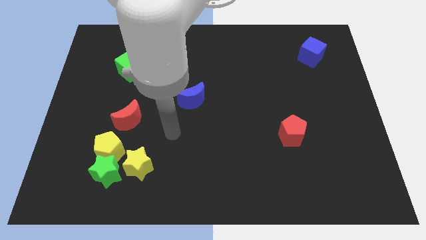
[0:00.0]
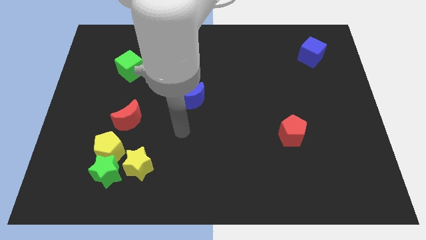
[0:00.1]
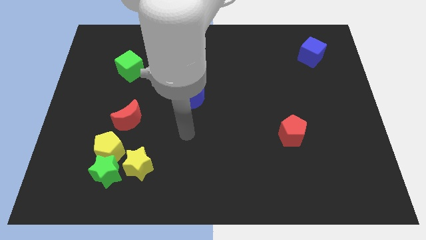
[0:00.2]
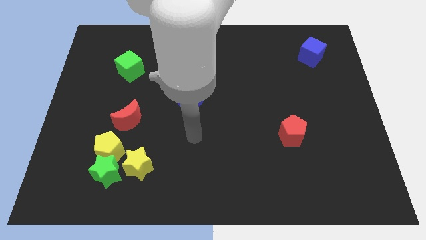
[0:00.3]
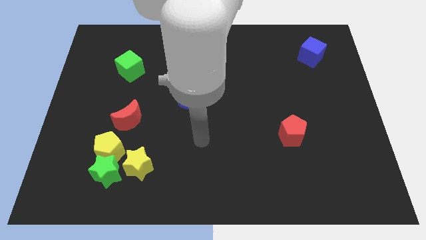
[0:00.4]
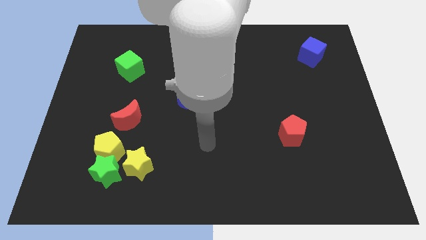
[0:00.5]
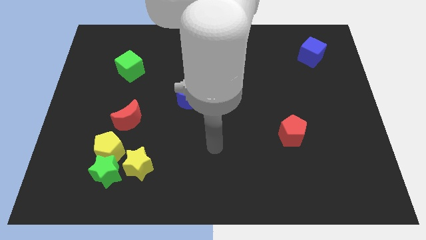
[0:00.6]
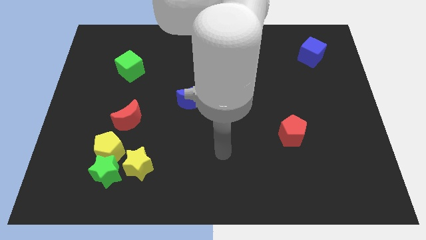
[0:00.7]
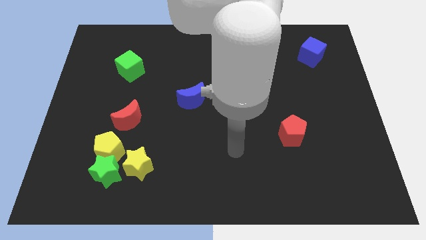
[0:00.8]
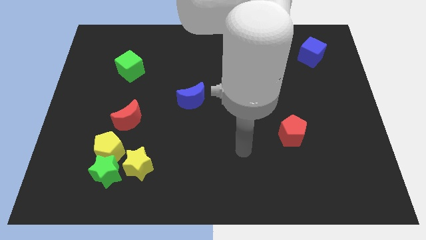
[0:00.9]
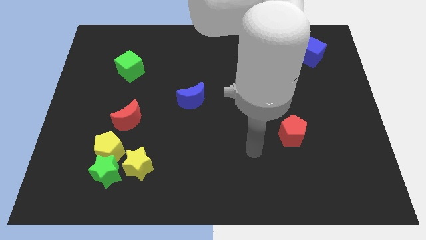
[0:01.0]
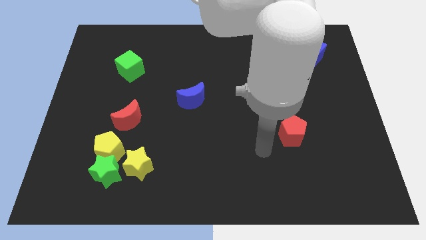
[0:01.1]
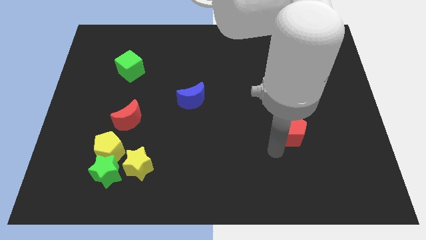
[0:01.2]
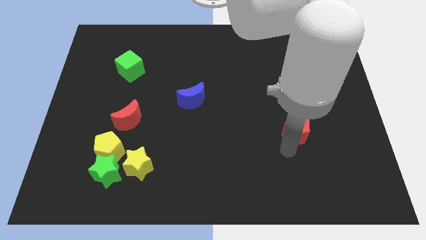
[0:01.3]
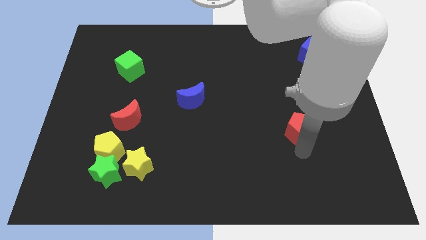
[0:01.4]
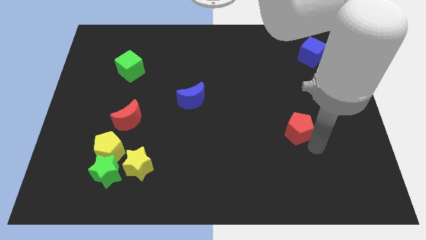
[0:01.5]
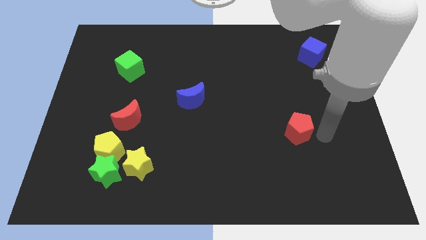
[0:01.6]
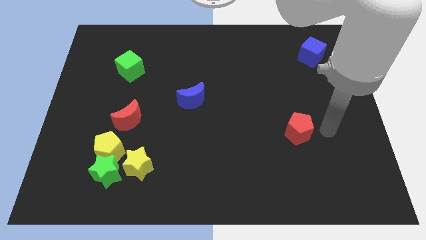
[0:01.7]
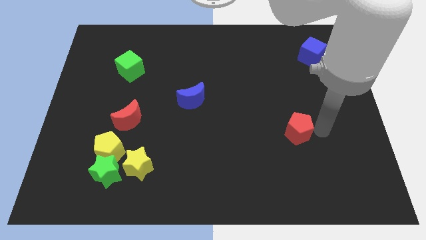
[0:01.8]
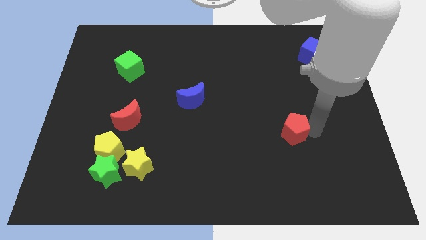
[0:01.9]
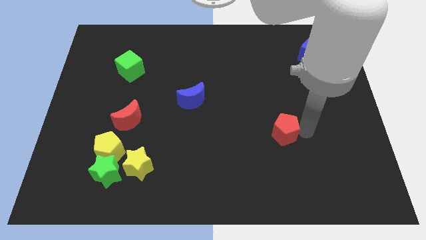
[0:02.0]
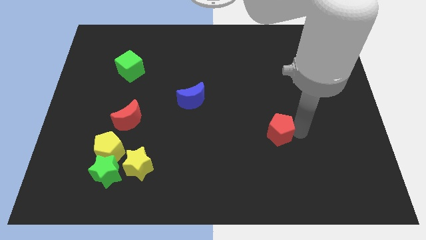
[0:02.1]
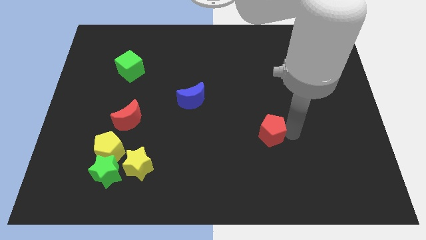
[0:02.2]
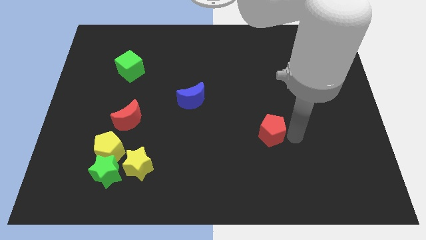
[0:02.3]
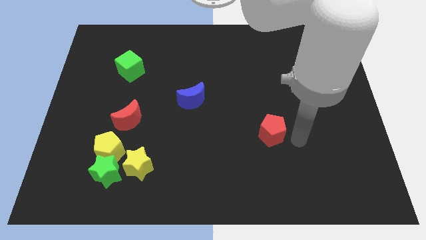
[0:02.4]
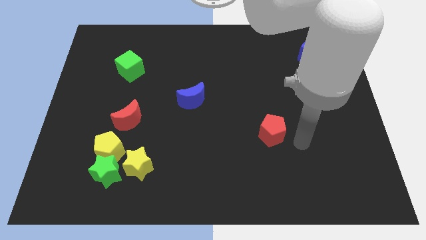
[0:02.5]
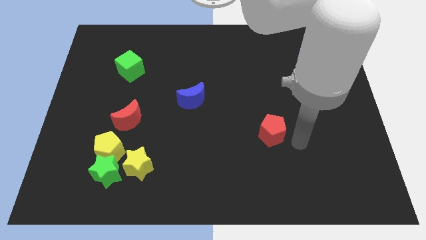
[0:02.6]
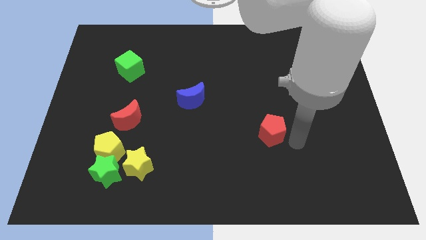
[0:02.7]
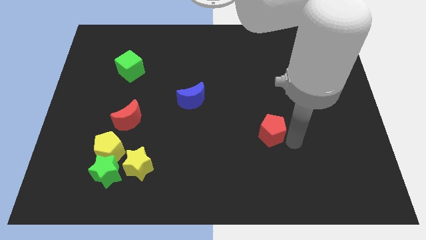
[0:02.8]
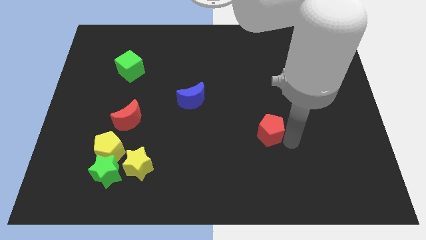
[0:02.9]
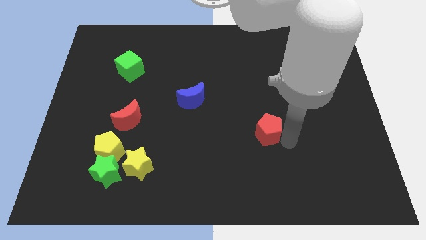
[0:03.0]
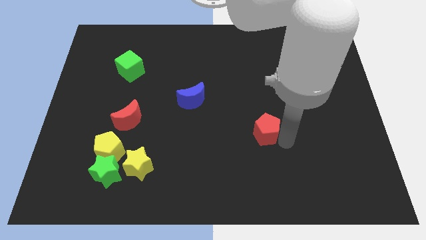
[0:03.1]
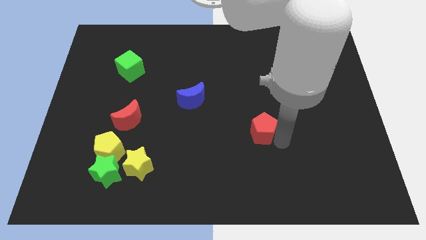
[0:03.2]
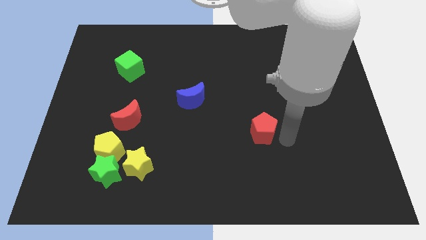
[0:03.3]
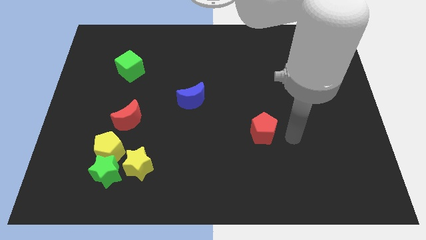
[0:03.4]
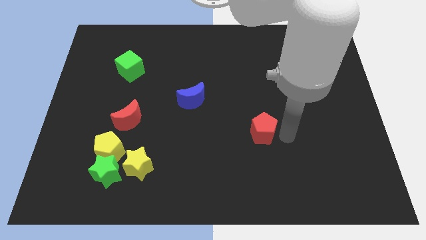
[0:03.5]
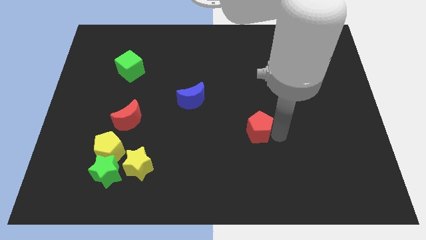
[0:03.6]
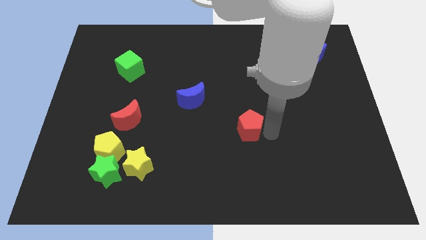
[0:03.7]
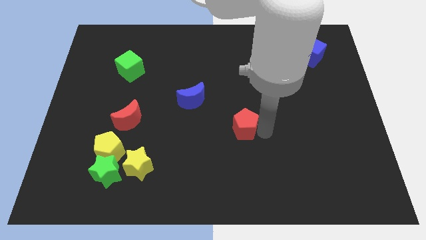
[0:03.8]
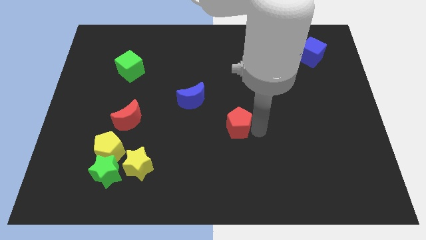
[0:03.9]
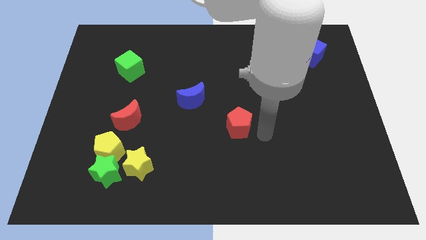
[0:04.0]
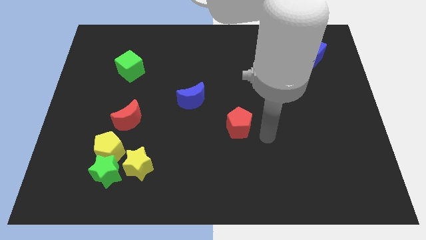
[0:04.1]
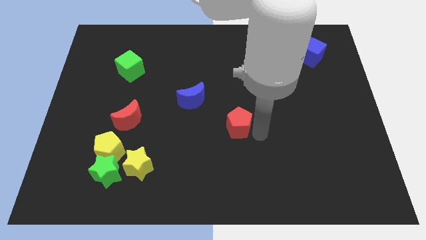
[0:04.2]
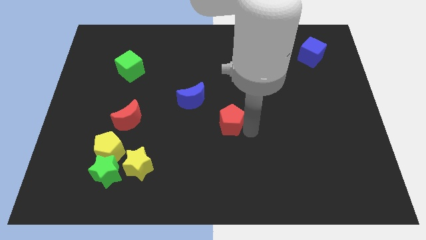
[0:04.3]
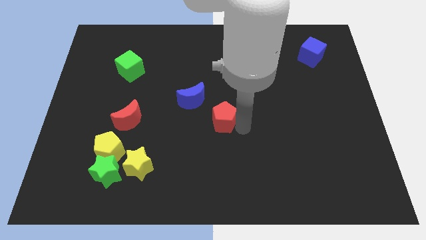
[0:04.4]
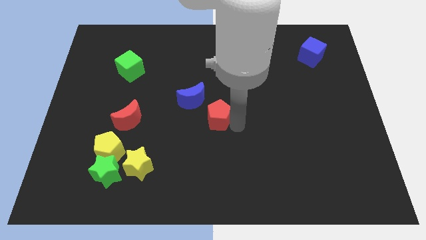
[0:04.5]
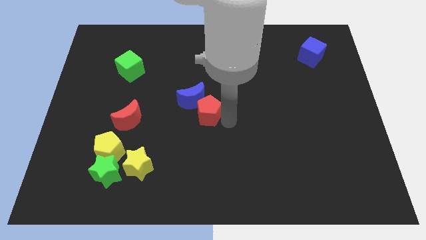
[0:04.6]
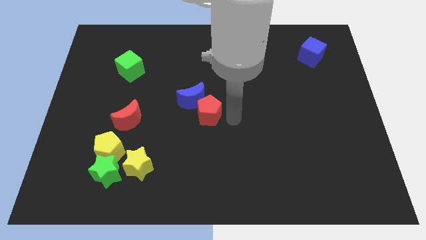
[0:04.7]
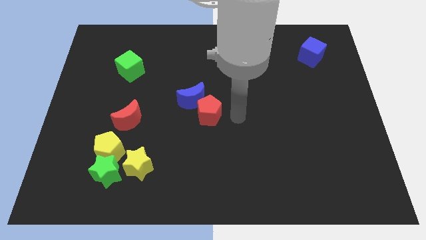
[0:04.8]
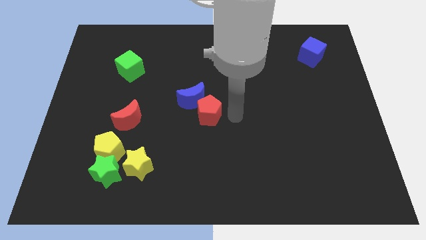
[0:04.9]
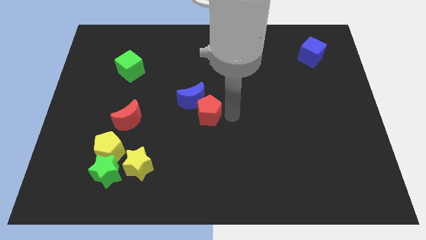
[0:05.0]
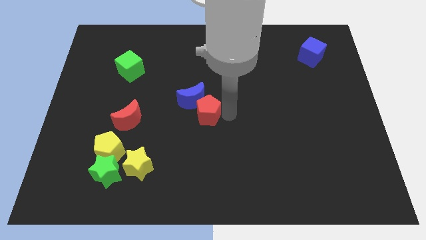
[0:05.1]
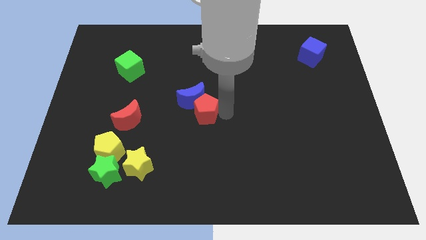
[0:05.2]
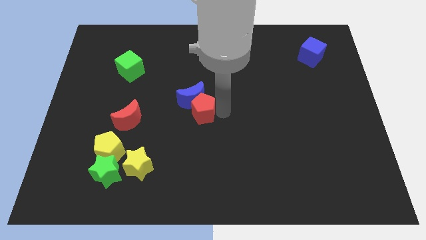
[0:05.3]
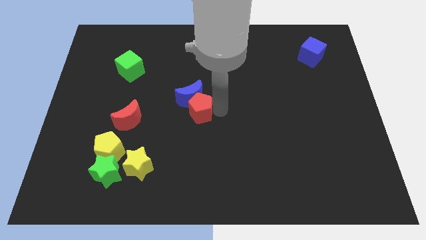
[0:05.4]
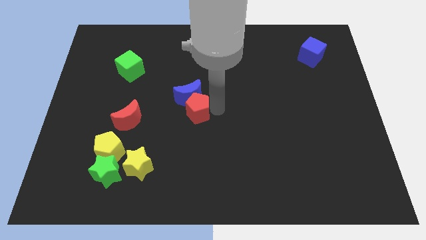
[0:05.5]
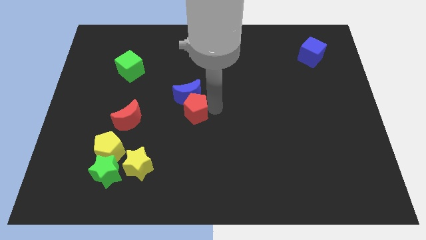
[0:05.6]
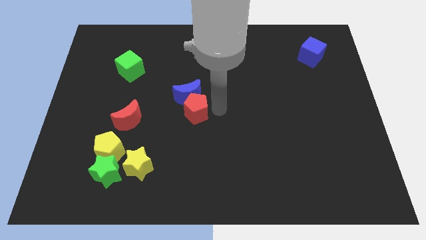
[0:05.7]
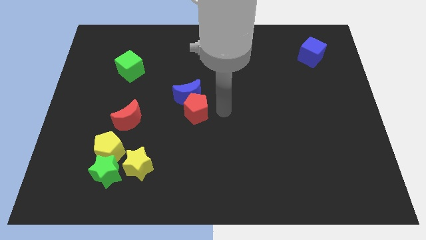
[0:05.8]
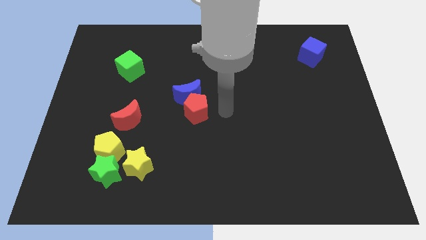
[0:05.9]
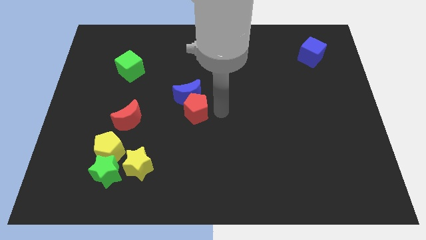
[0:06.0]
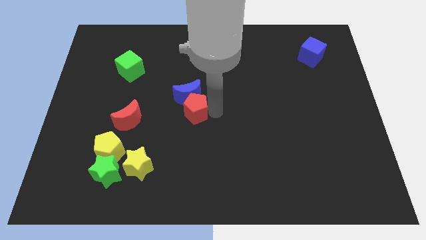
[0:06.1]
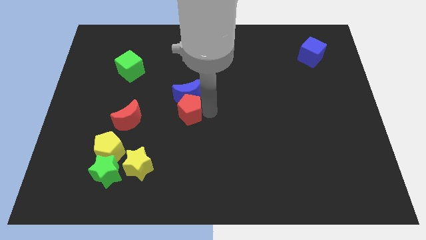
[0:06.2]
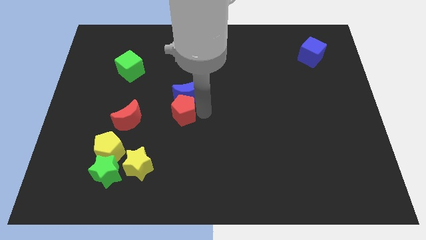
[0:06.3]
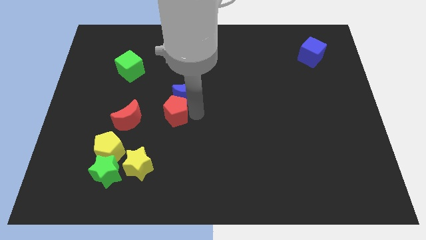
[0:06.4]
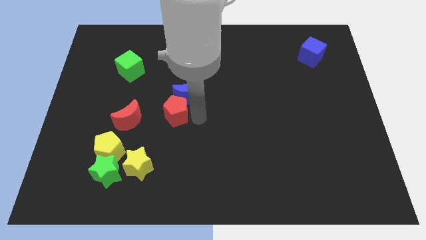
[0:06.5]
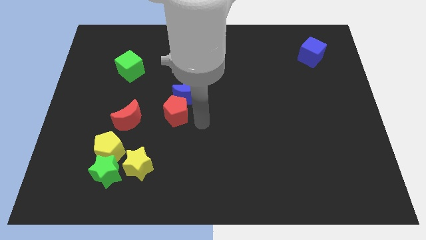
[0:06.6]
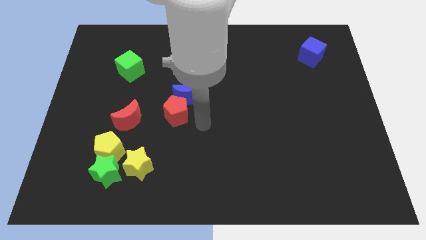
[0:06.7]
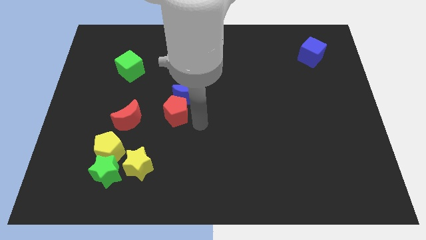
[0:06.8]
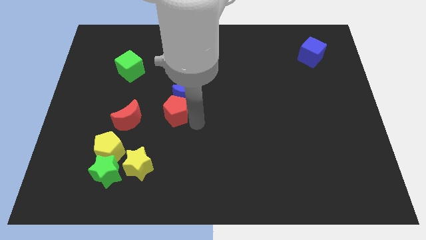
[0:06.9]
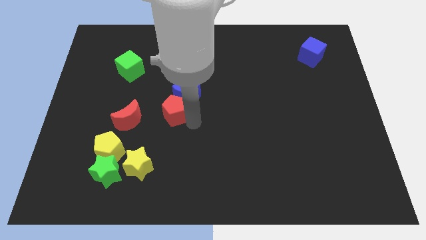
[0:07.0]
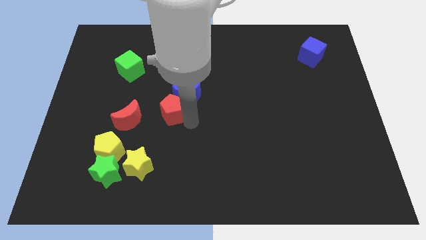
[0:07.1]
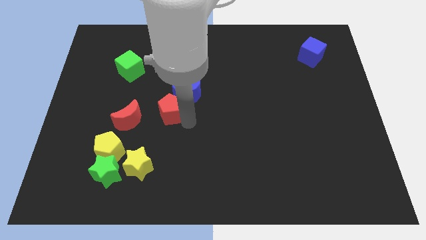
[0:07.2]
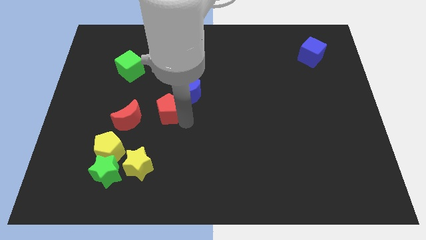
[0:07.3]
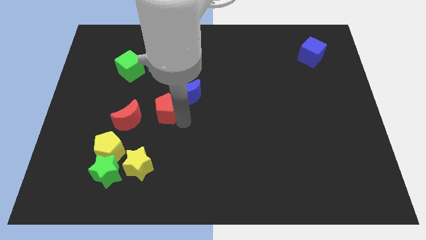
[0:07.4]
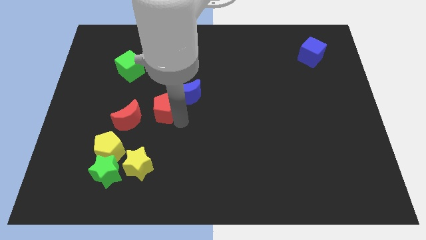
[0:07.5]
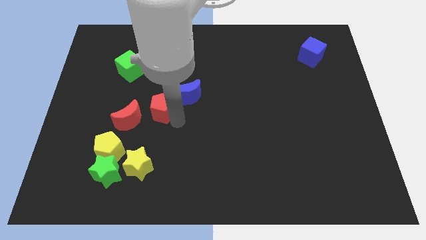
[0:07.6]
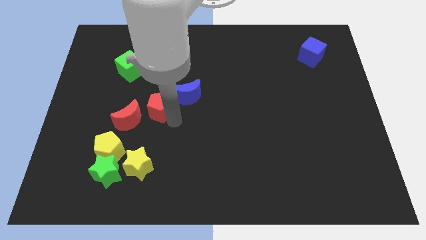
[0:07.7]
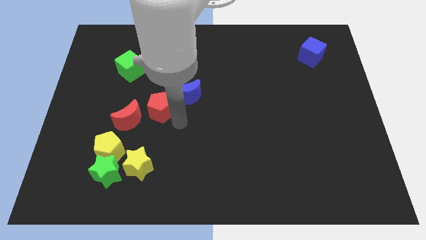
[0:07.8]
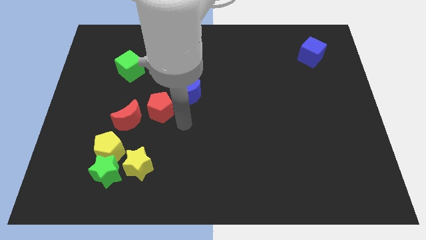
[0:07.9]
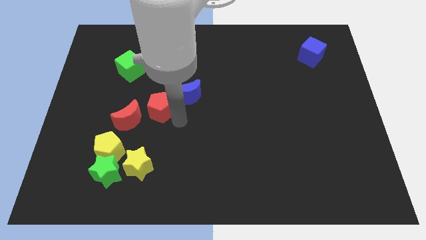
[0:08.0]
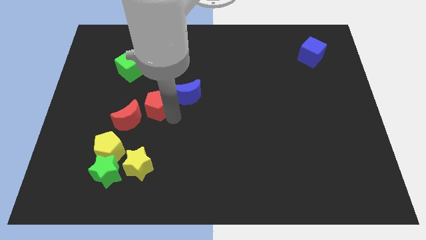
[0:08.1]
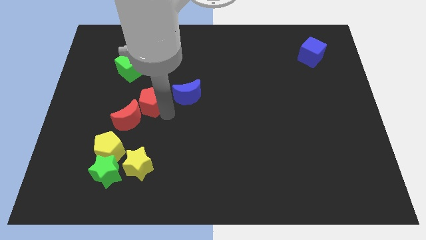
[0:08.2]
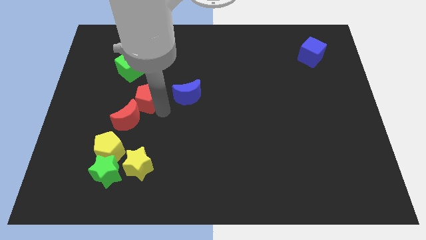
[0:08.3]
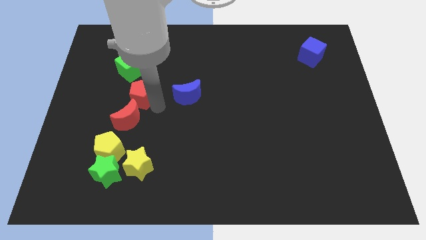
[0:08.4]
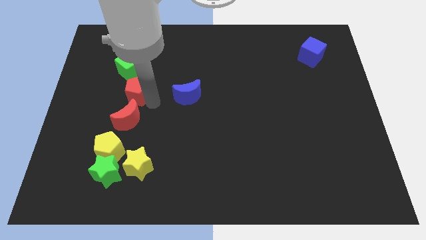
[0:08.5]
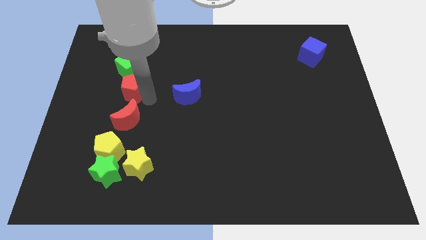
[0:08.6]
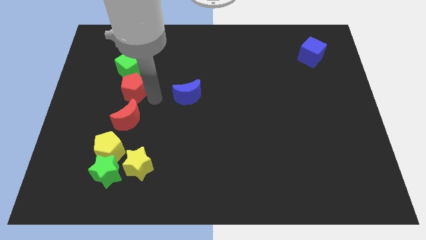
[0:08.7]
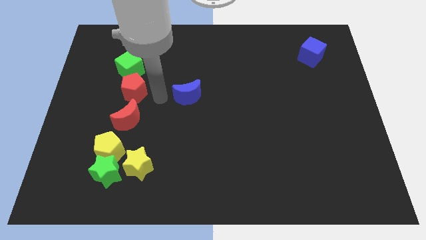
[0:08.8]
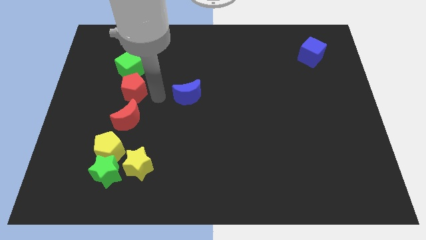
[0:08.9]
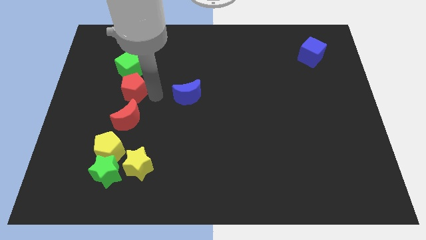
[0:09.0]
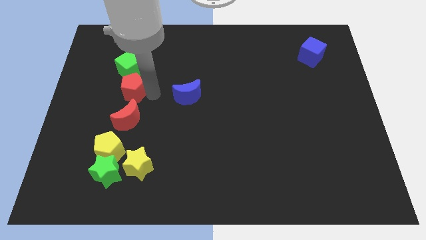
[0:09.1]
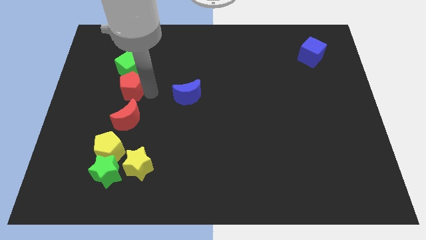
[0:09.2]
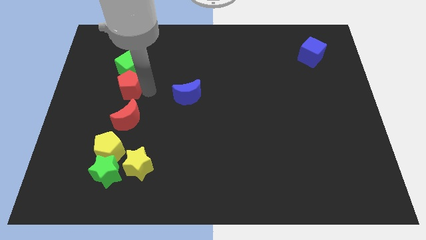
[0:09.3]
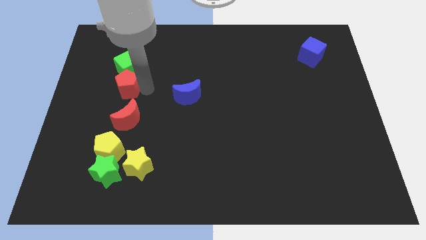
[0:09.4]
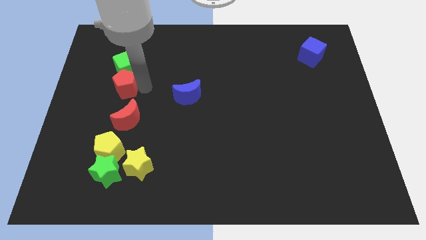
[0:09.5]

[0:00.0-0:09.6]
slide the red pentagon diagonally down and to the left of the green cube
